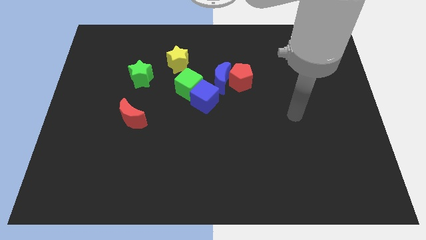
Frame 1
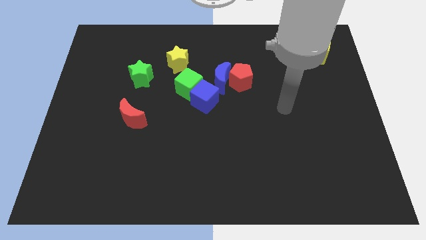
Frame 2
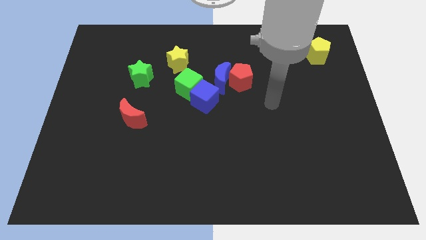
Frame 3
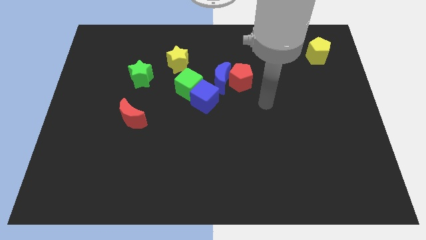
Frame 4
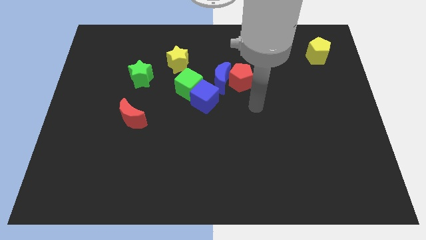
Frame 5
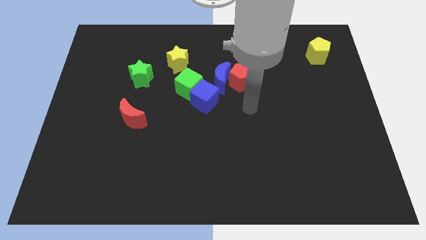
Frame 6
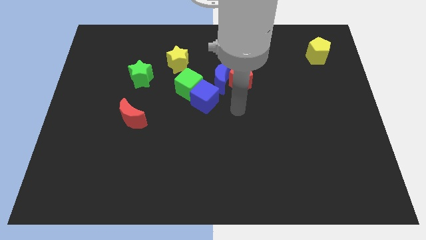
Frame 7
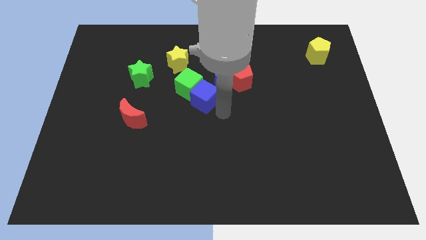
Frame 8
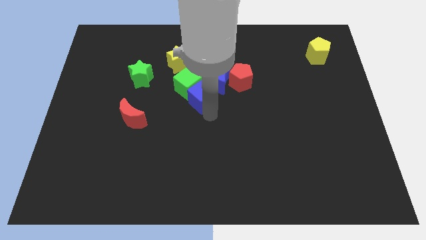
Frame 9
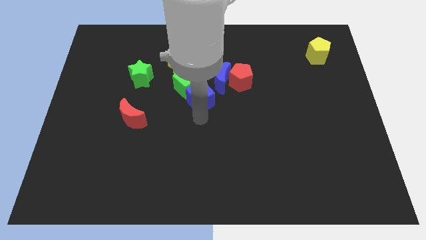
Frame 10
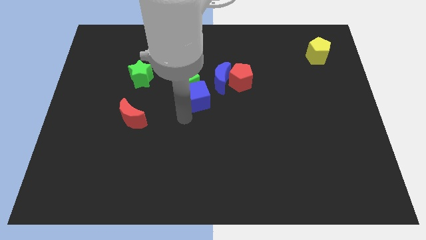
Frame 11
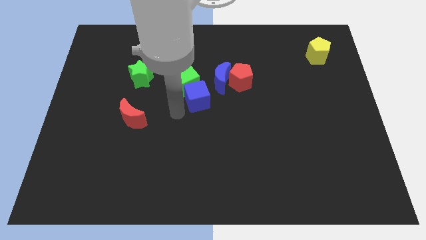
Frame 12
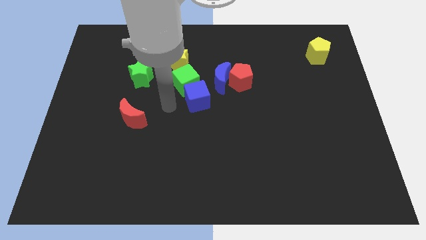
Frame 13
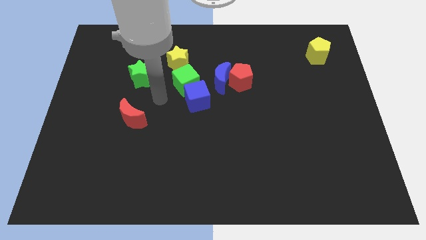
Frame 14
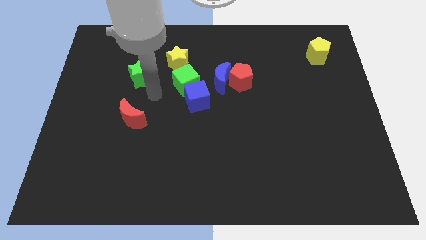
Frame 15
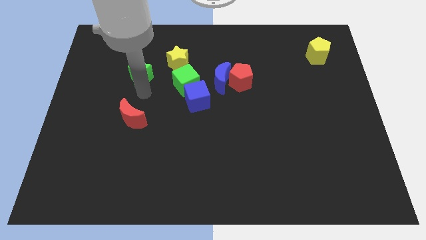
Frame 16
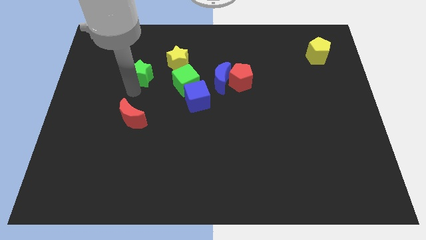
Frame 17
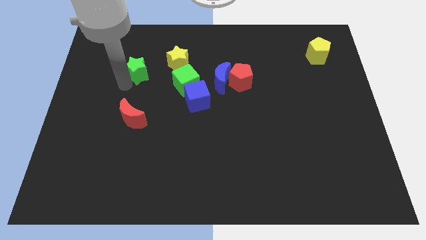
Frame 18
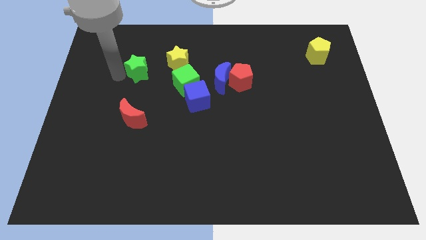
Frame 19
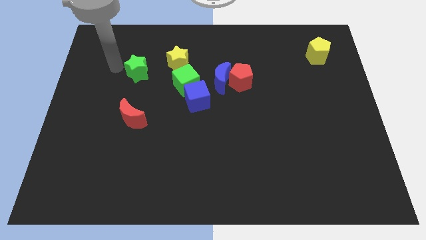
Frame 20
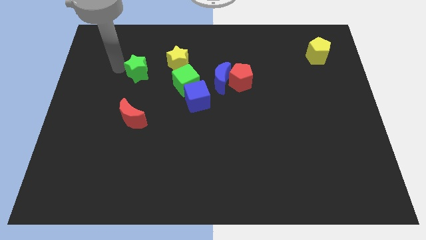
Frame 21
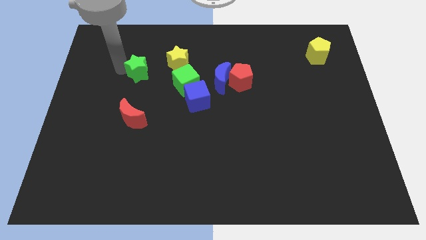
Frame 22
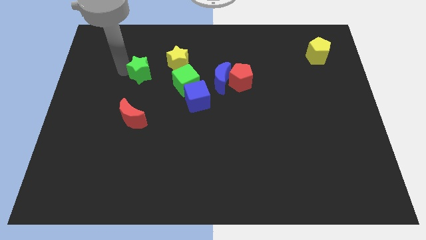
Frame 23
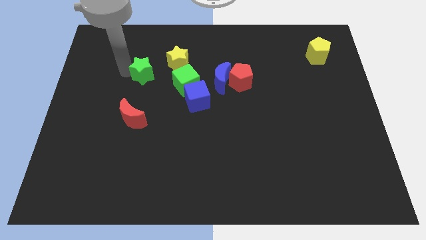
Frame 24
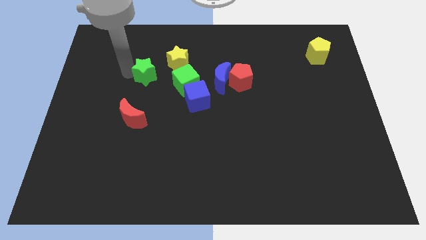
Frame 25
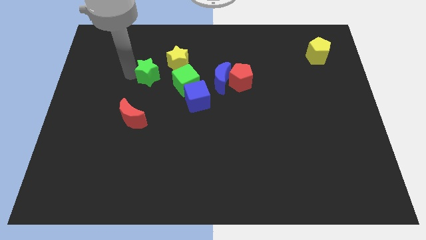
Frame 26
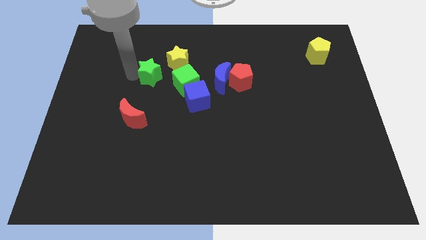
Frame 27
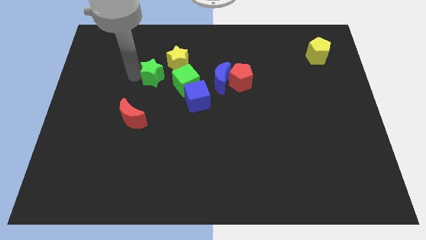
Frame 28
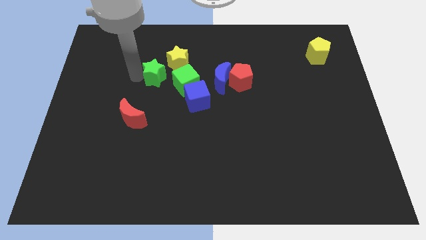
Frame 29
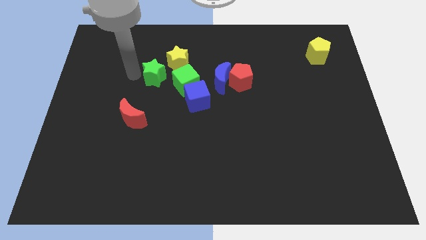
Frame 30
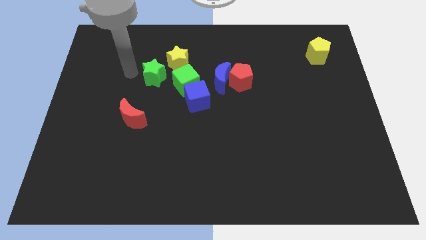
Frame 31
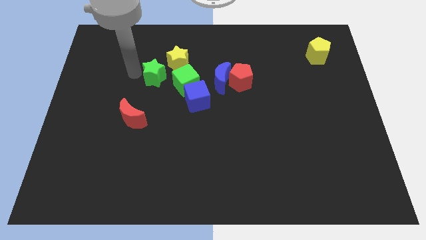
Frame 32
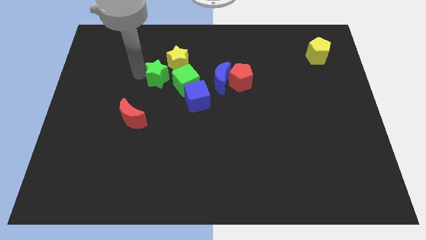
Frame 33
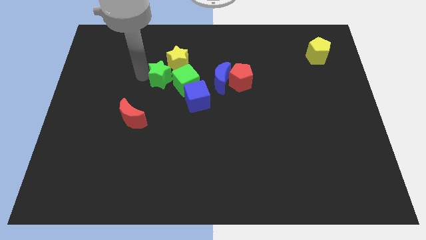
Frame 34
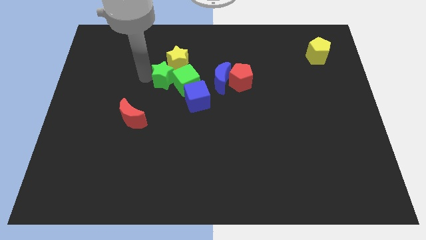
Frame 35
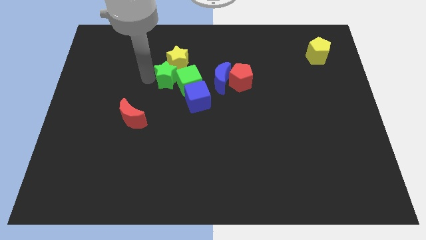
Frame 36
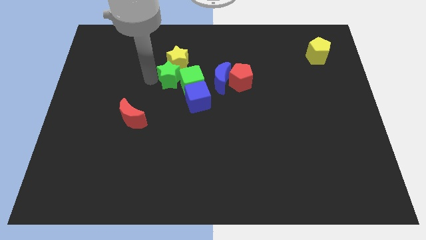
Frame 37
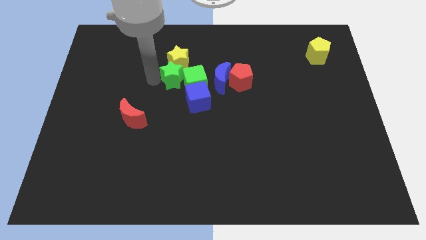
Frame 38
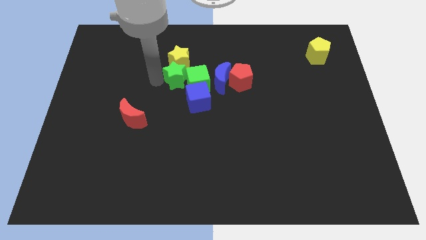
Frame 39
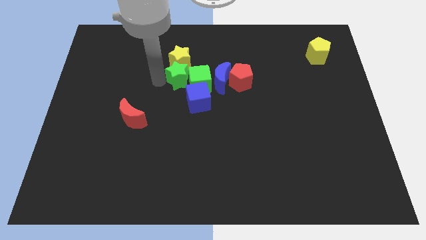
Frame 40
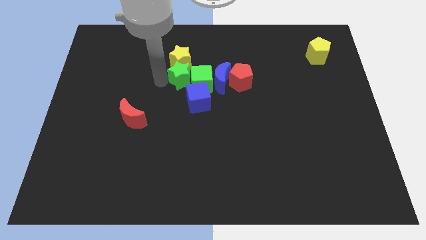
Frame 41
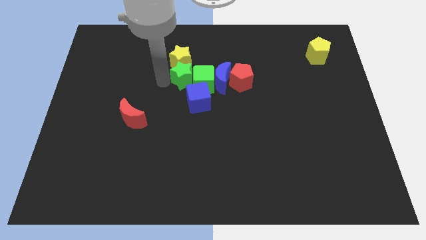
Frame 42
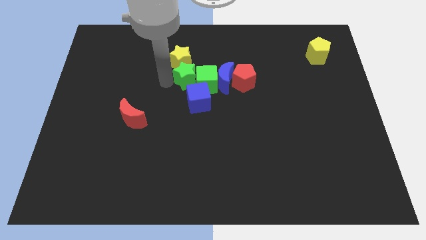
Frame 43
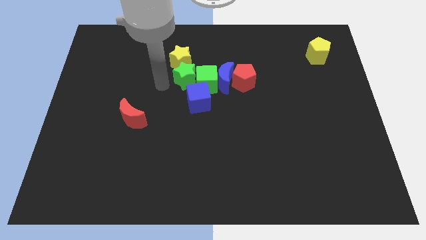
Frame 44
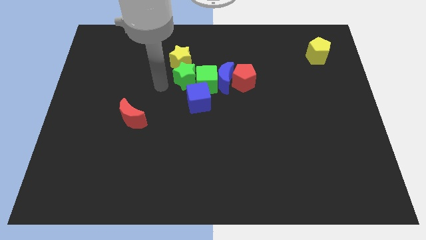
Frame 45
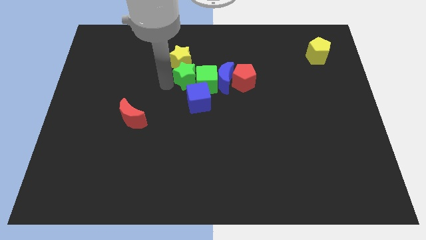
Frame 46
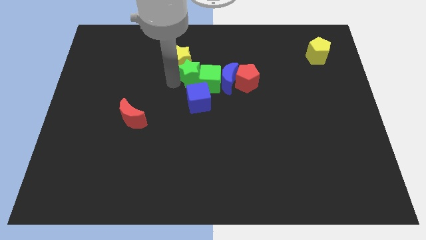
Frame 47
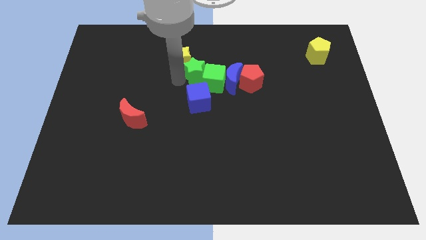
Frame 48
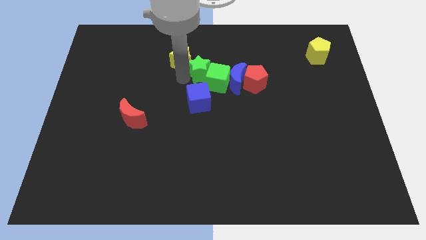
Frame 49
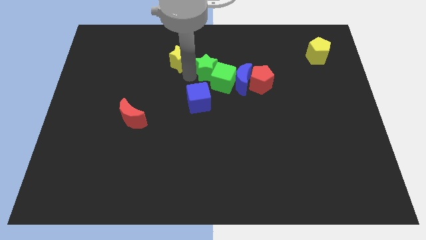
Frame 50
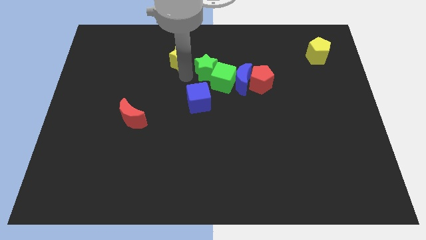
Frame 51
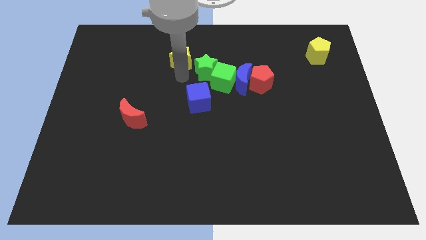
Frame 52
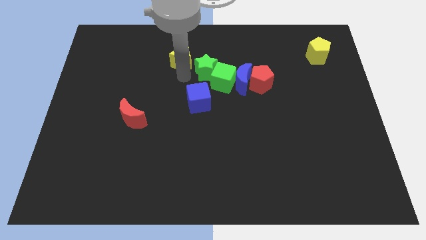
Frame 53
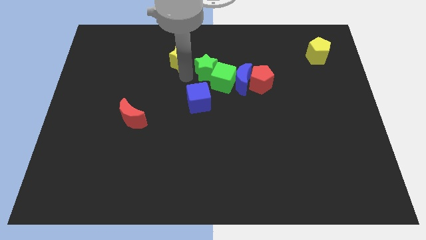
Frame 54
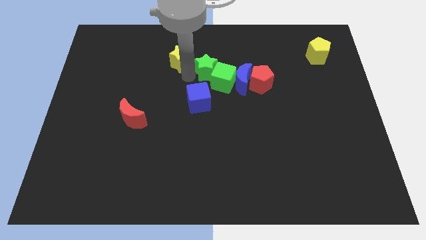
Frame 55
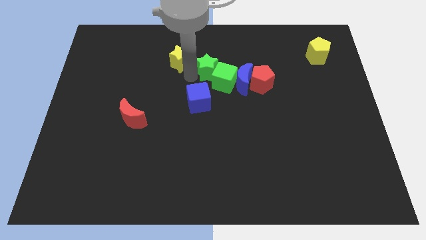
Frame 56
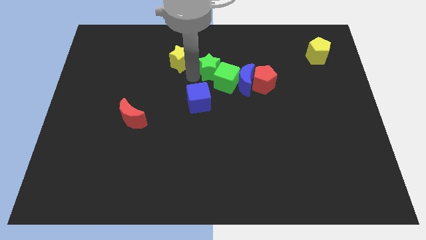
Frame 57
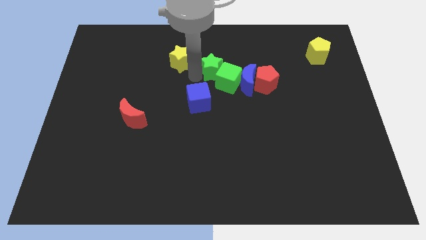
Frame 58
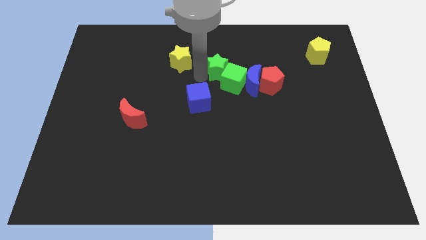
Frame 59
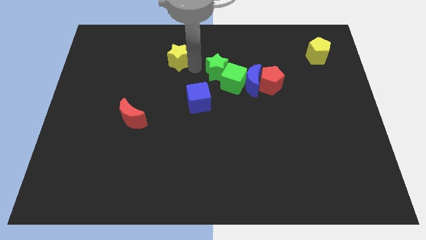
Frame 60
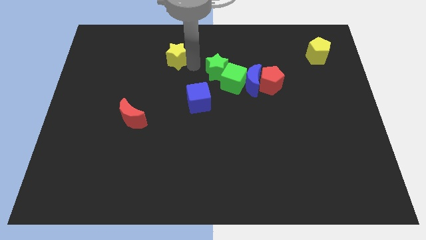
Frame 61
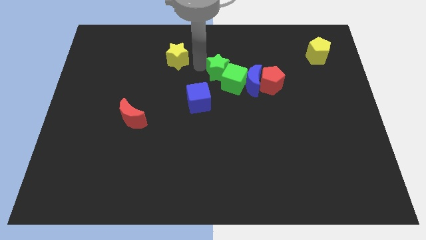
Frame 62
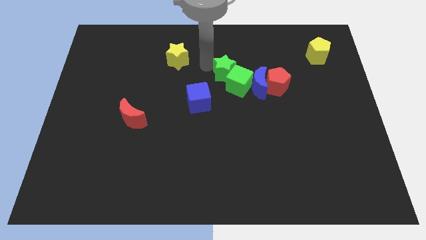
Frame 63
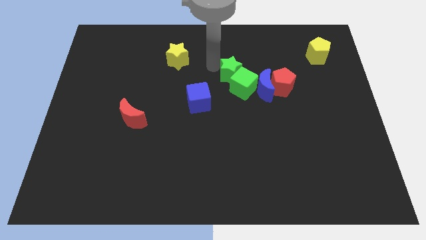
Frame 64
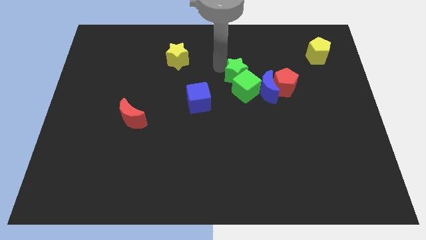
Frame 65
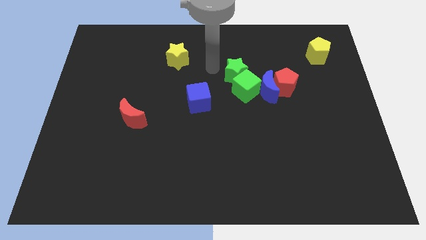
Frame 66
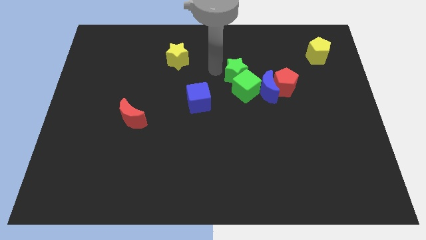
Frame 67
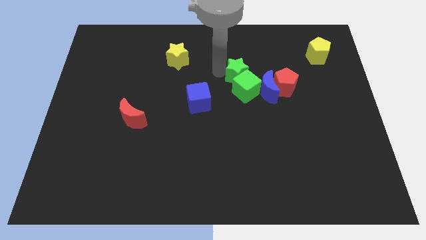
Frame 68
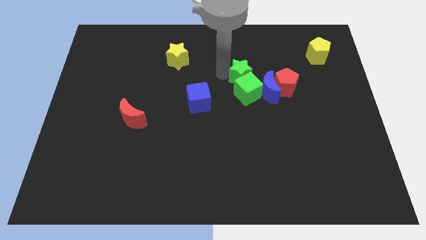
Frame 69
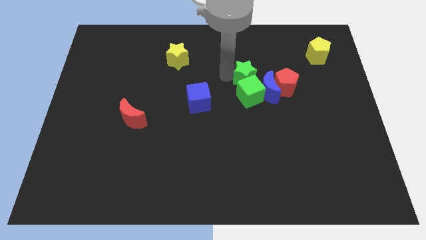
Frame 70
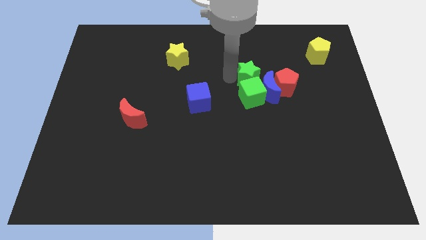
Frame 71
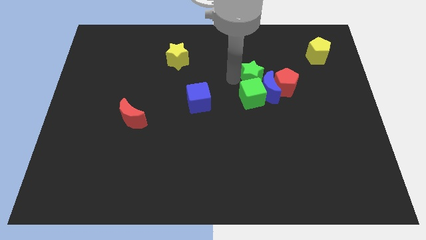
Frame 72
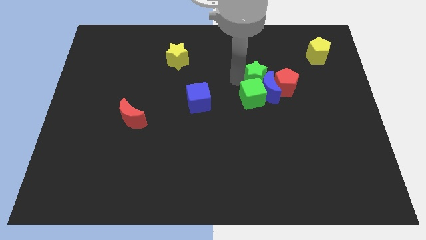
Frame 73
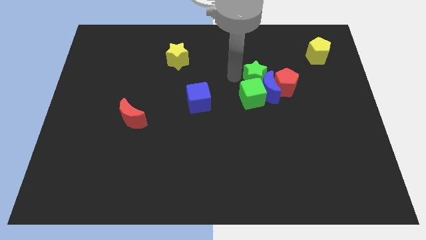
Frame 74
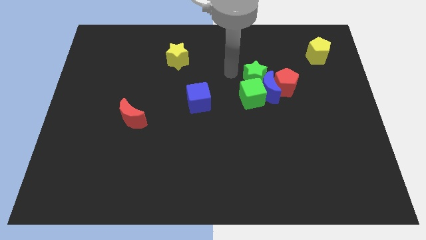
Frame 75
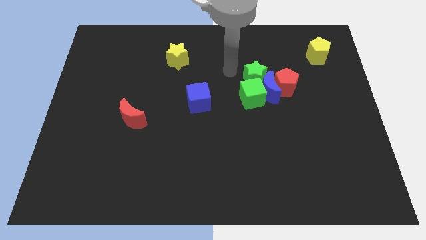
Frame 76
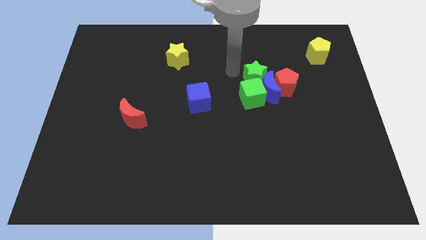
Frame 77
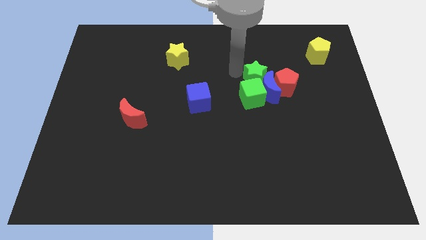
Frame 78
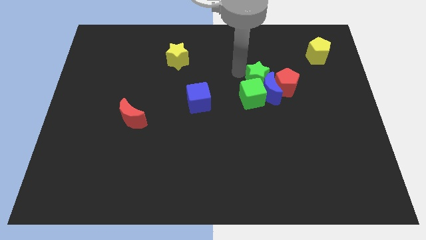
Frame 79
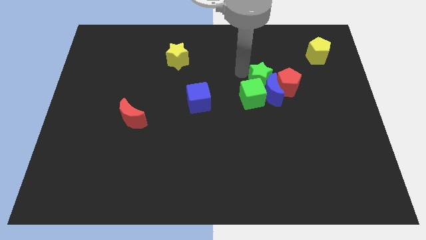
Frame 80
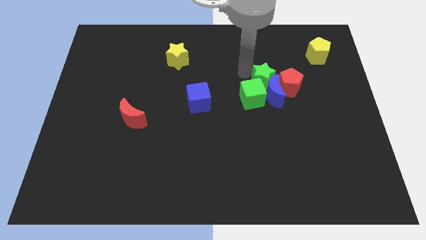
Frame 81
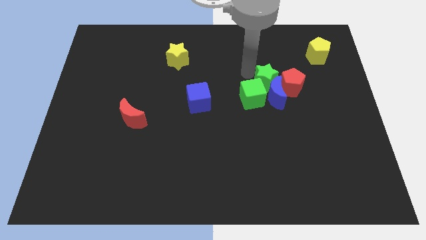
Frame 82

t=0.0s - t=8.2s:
push the green star to the red pentagon
